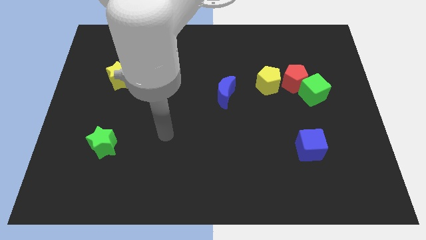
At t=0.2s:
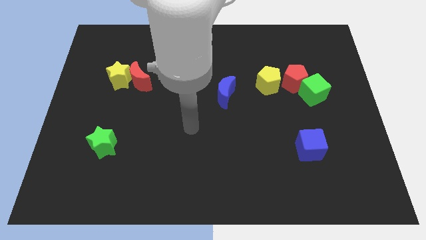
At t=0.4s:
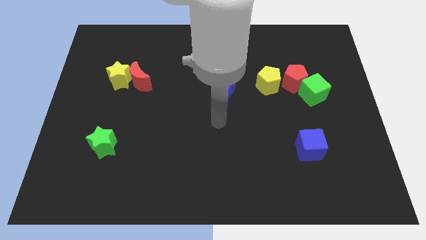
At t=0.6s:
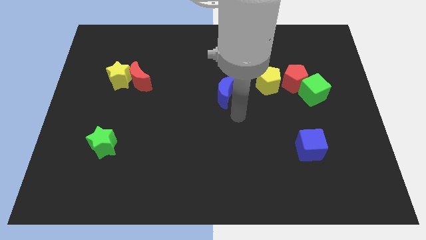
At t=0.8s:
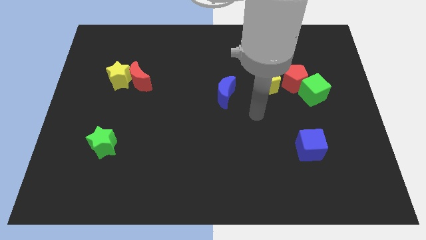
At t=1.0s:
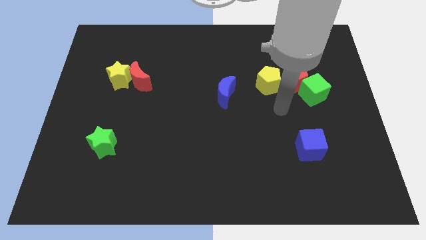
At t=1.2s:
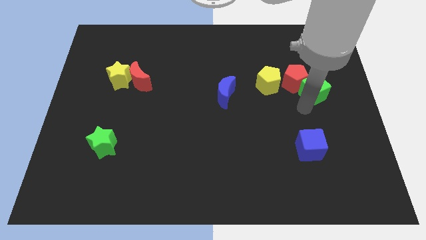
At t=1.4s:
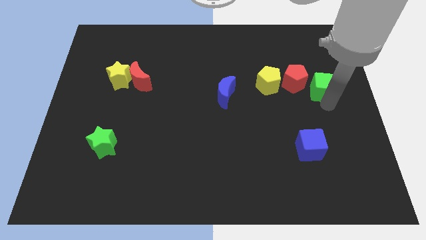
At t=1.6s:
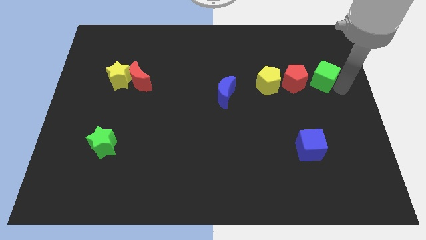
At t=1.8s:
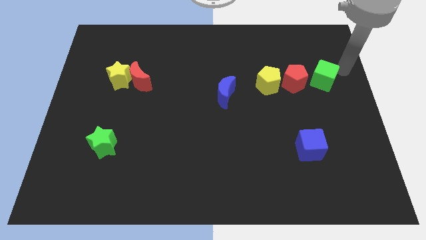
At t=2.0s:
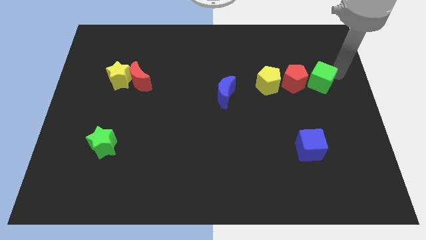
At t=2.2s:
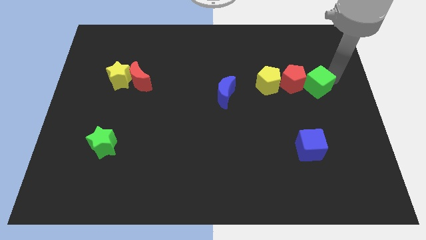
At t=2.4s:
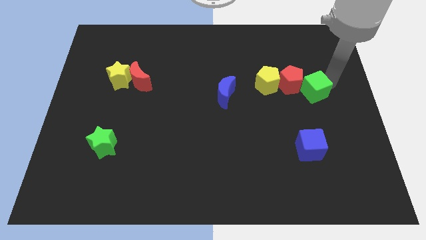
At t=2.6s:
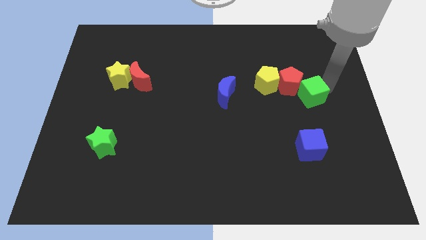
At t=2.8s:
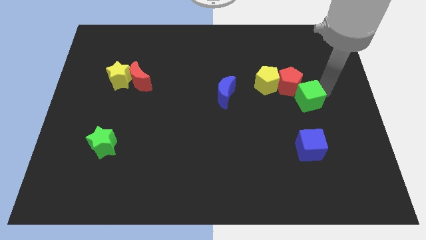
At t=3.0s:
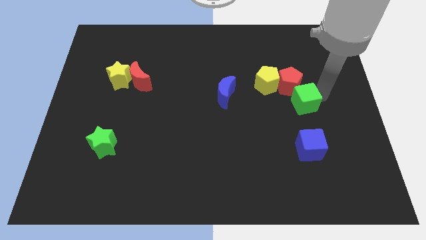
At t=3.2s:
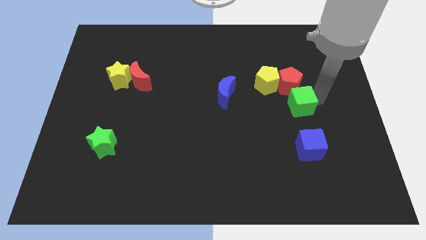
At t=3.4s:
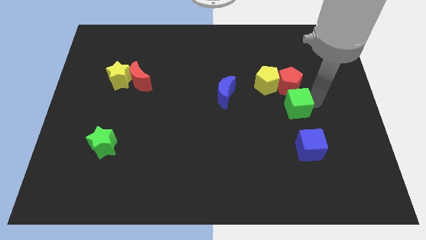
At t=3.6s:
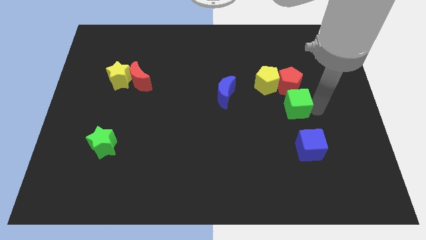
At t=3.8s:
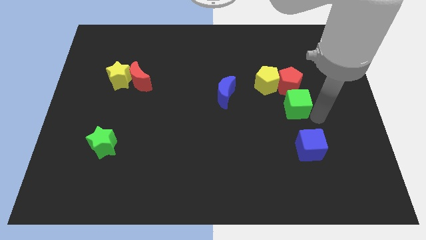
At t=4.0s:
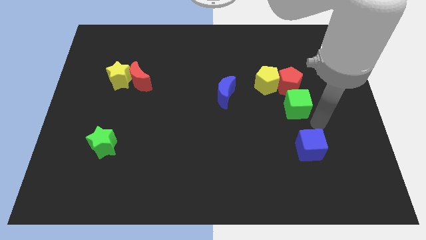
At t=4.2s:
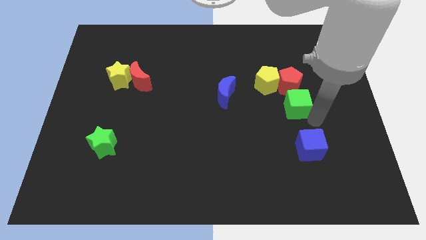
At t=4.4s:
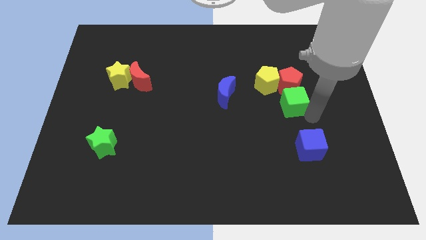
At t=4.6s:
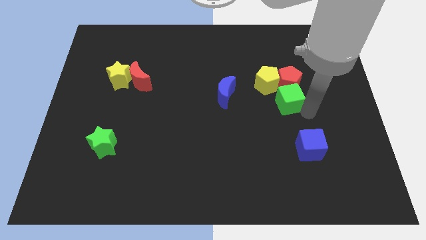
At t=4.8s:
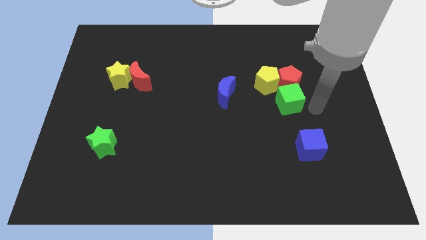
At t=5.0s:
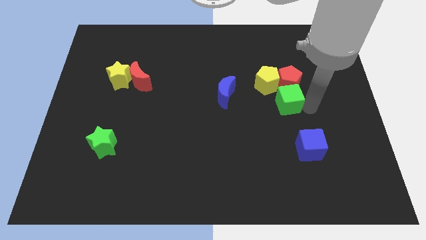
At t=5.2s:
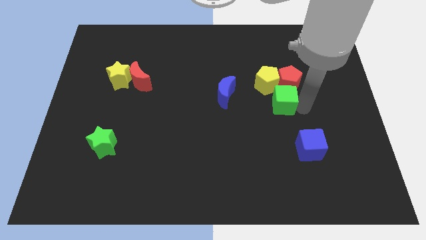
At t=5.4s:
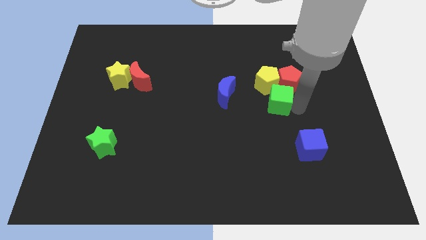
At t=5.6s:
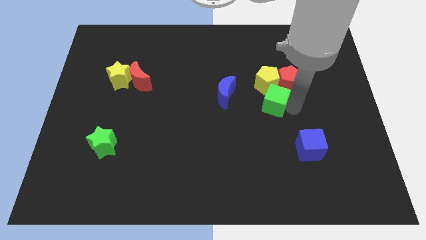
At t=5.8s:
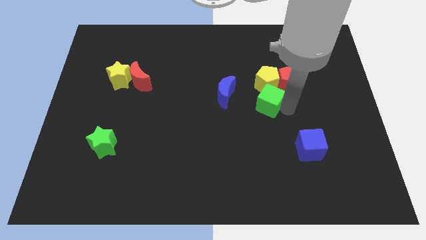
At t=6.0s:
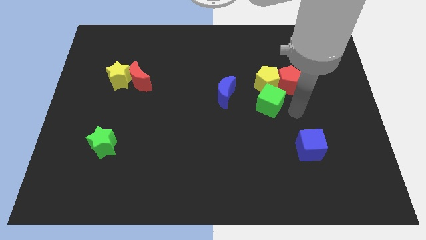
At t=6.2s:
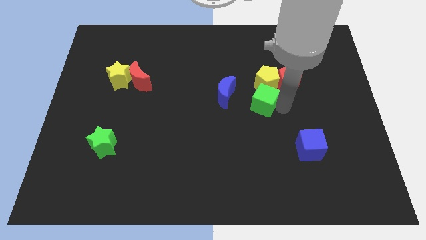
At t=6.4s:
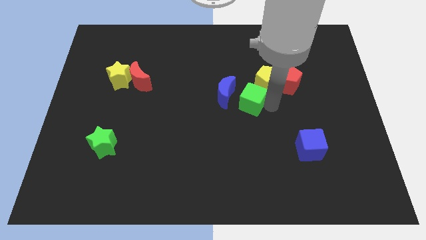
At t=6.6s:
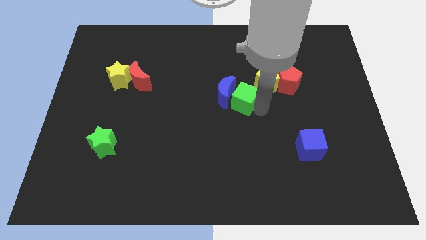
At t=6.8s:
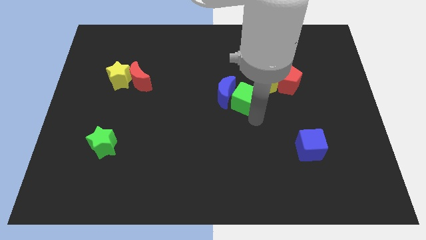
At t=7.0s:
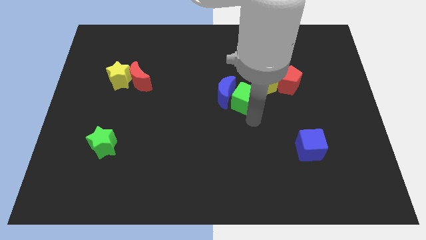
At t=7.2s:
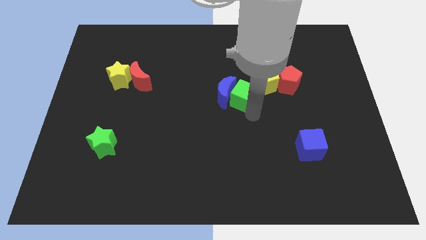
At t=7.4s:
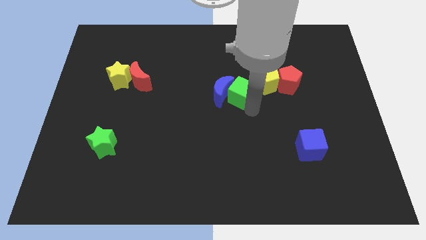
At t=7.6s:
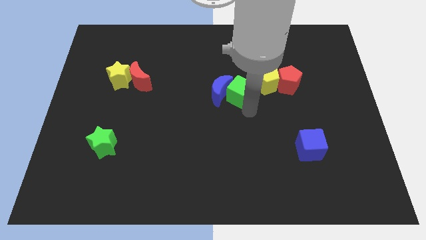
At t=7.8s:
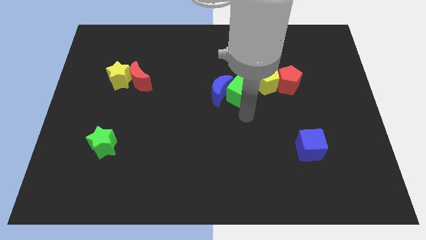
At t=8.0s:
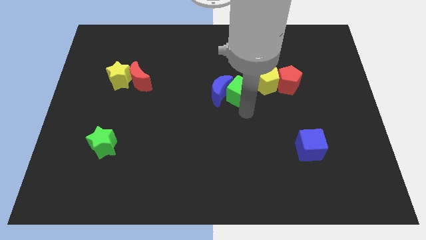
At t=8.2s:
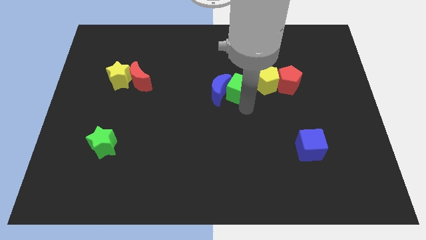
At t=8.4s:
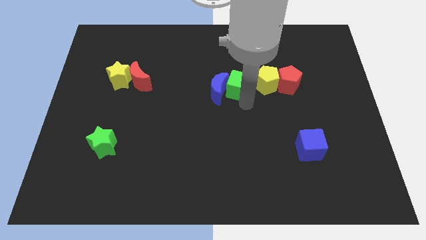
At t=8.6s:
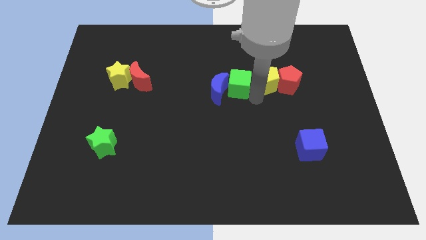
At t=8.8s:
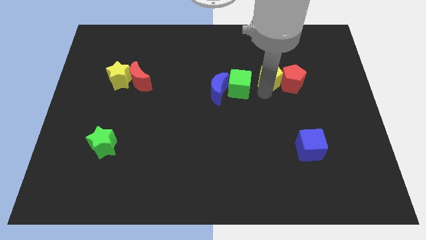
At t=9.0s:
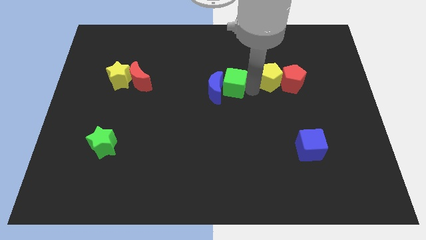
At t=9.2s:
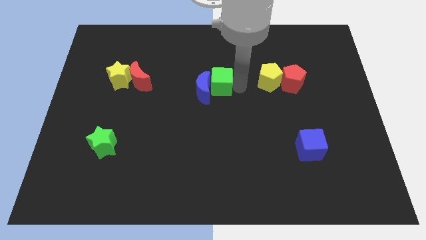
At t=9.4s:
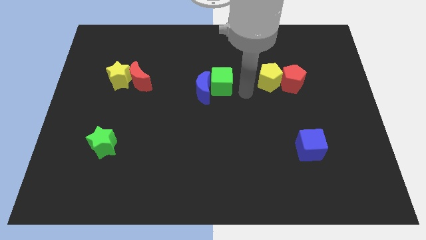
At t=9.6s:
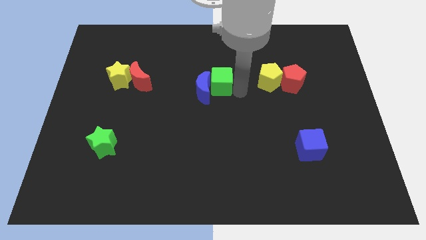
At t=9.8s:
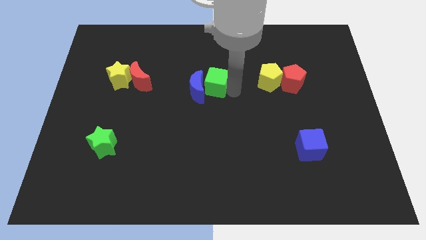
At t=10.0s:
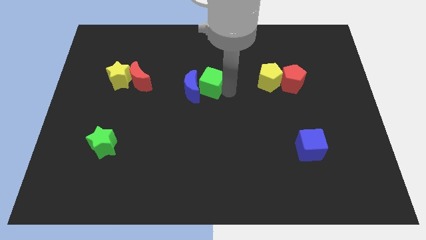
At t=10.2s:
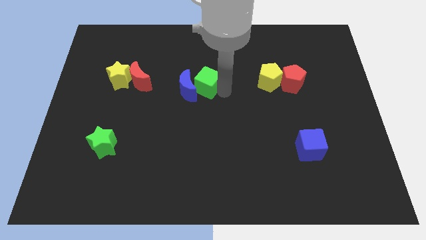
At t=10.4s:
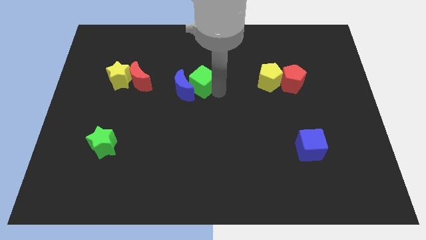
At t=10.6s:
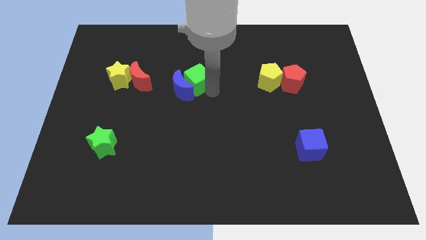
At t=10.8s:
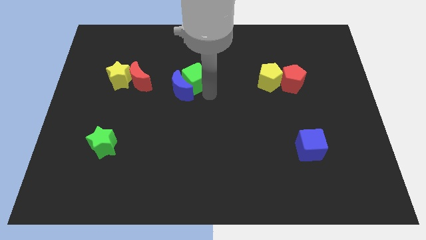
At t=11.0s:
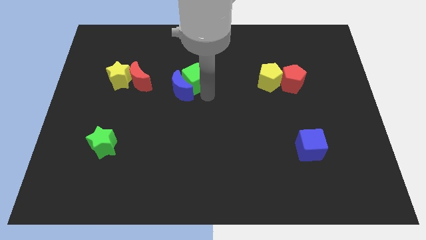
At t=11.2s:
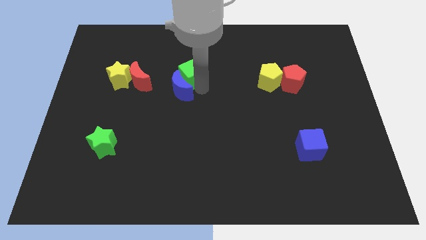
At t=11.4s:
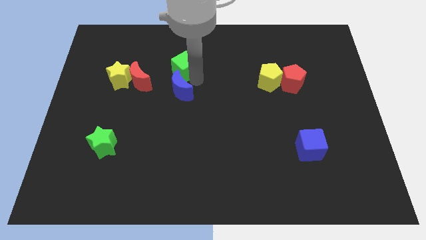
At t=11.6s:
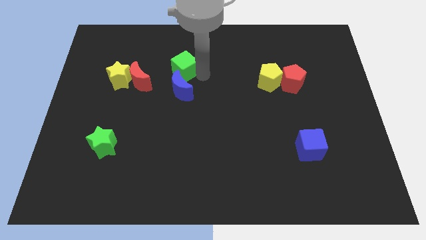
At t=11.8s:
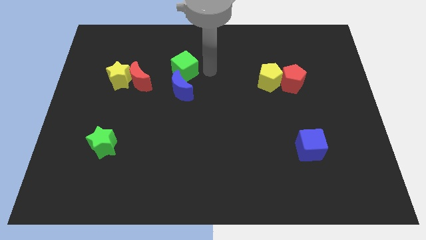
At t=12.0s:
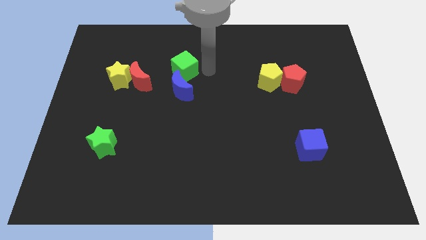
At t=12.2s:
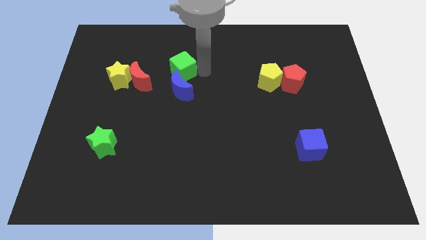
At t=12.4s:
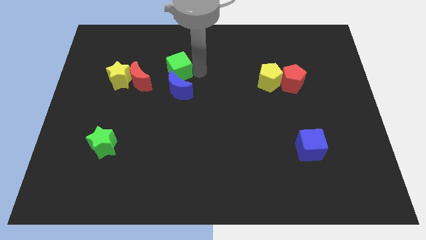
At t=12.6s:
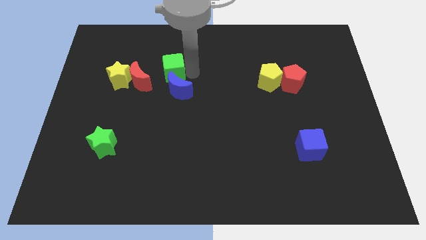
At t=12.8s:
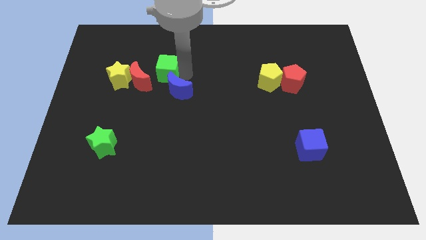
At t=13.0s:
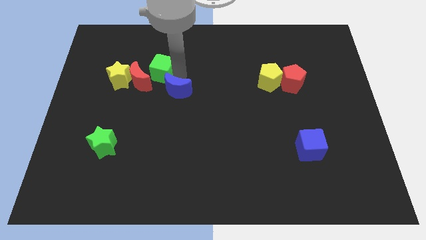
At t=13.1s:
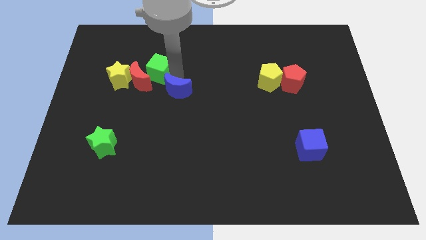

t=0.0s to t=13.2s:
put the green cube to the top right side of the yellow star
